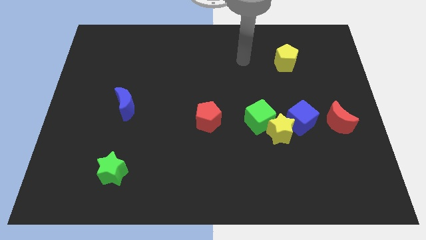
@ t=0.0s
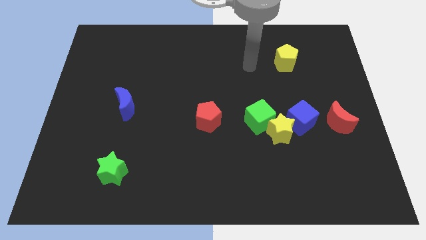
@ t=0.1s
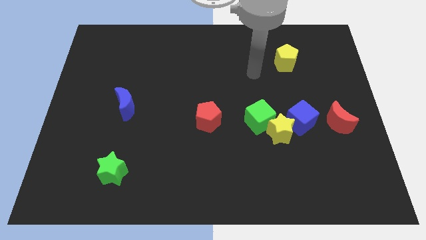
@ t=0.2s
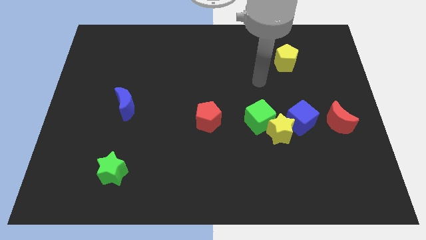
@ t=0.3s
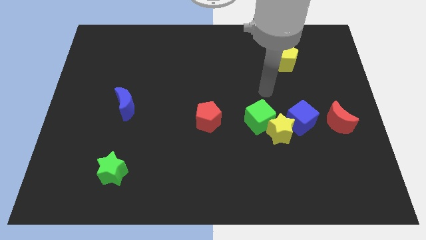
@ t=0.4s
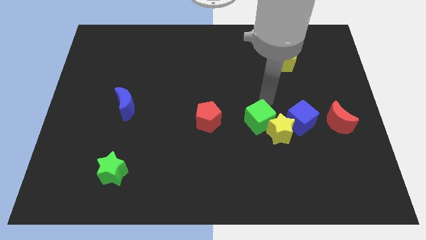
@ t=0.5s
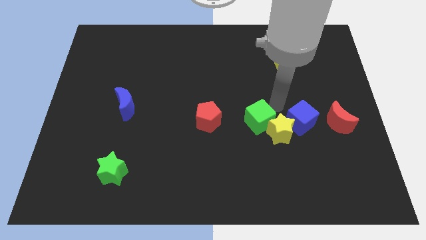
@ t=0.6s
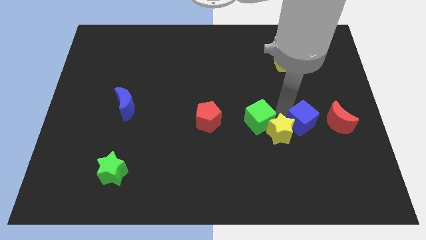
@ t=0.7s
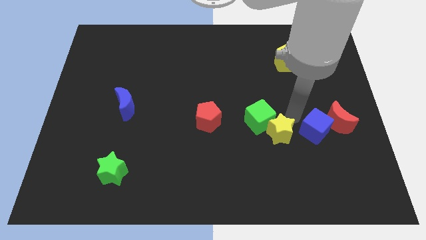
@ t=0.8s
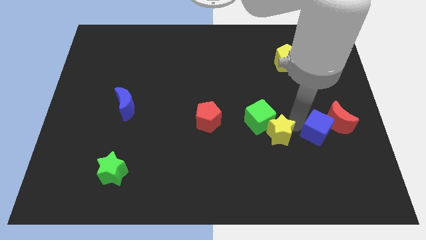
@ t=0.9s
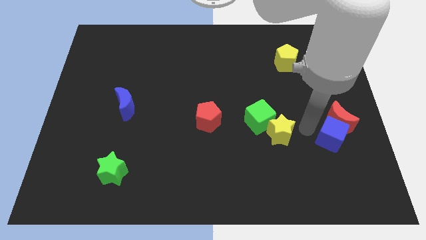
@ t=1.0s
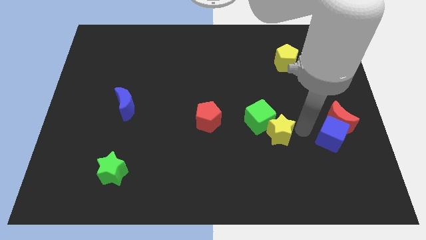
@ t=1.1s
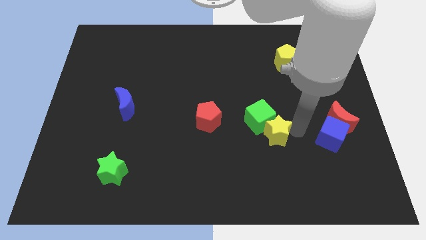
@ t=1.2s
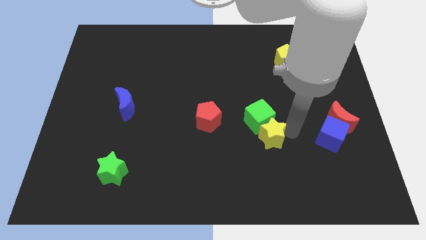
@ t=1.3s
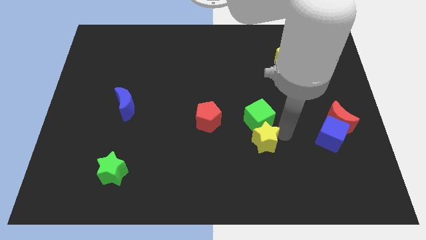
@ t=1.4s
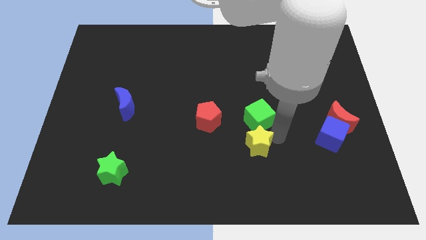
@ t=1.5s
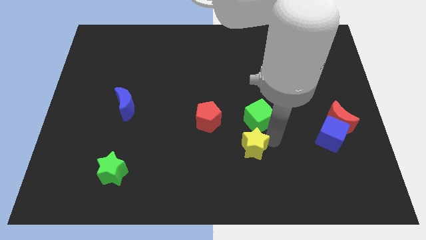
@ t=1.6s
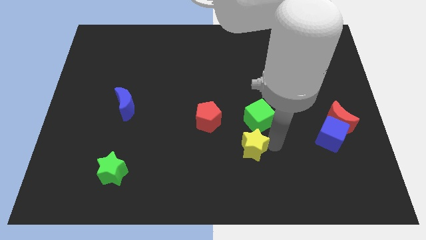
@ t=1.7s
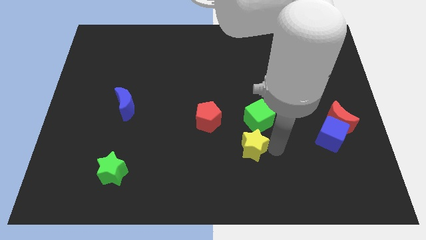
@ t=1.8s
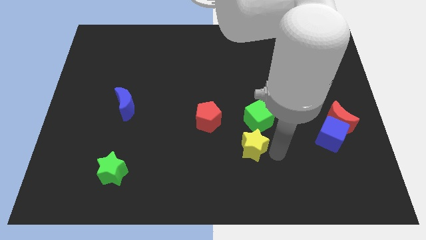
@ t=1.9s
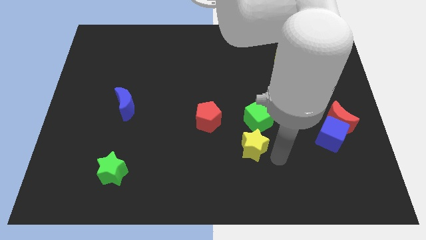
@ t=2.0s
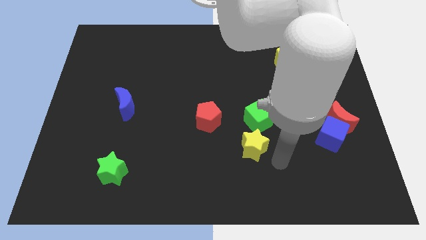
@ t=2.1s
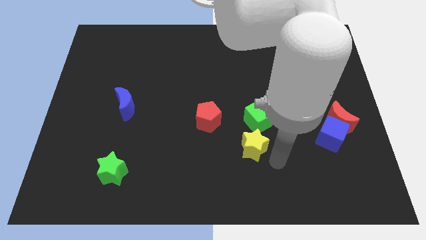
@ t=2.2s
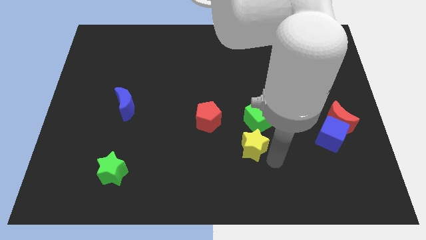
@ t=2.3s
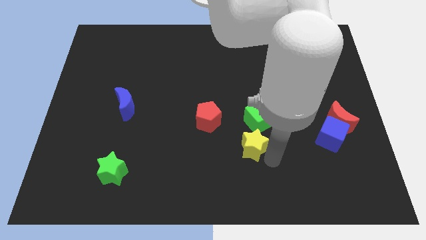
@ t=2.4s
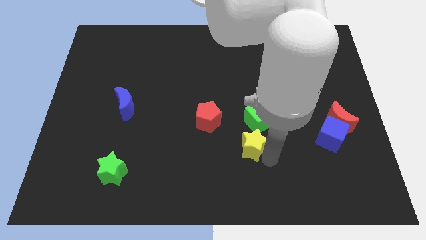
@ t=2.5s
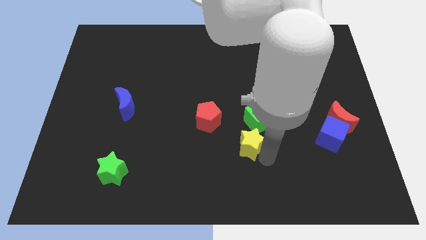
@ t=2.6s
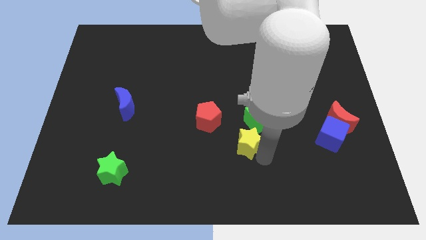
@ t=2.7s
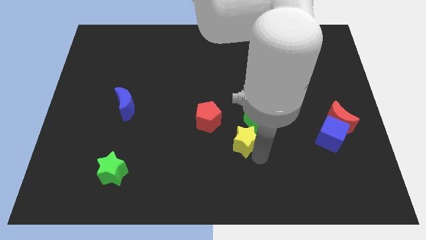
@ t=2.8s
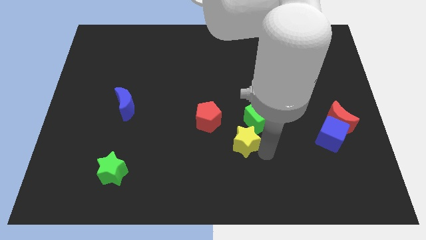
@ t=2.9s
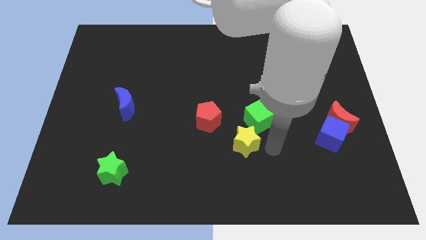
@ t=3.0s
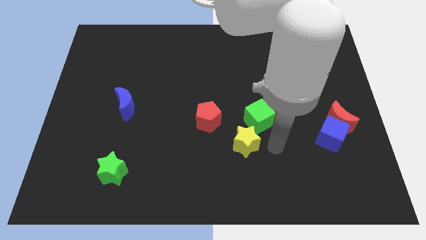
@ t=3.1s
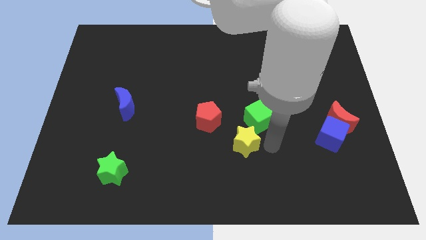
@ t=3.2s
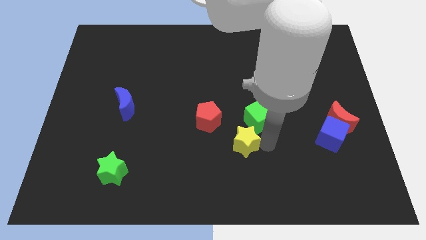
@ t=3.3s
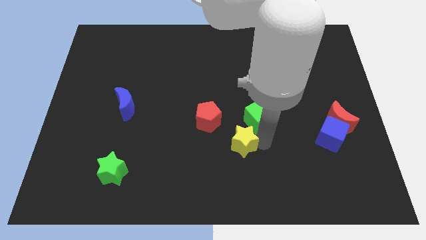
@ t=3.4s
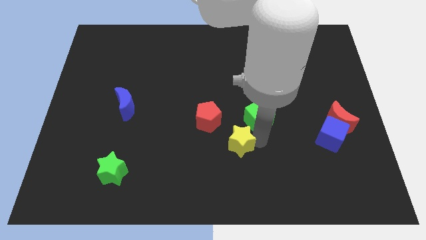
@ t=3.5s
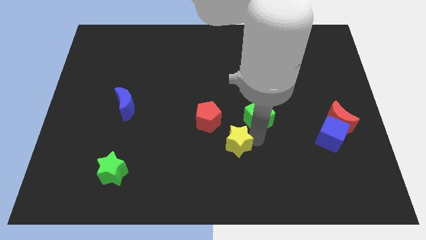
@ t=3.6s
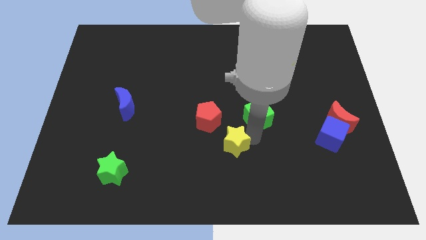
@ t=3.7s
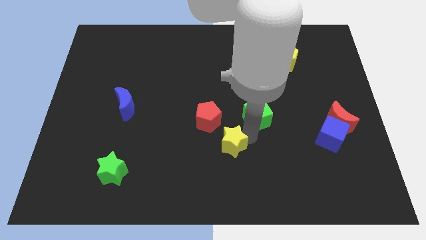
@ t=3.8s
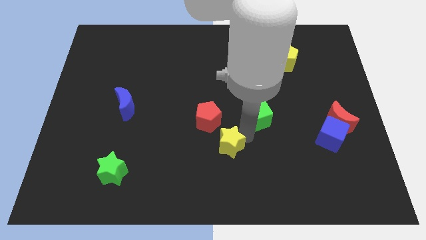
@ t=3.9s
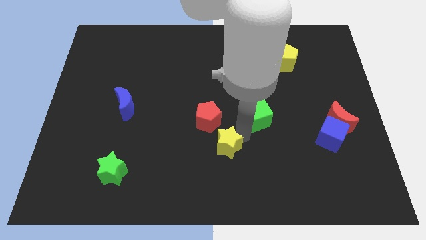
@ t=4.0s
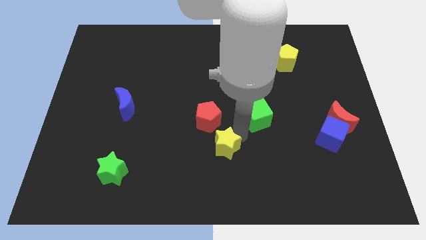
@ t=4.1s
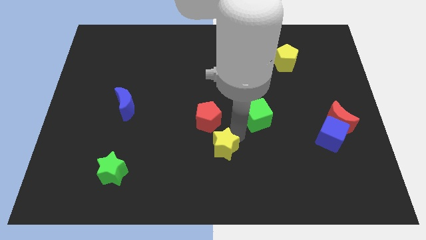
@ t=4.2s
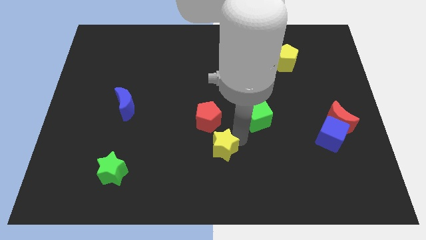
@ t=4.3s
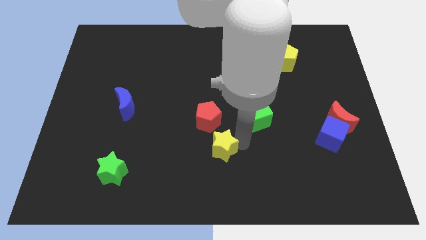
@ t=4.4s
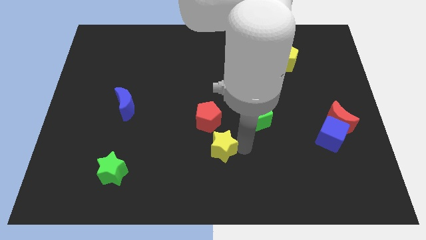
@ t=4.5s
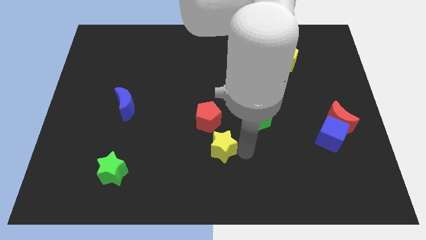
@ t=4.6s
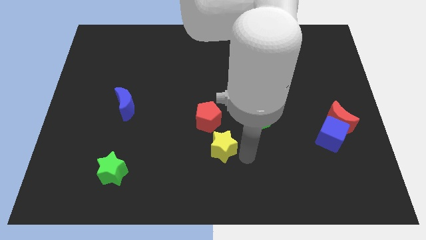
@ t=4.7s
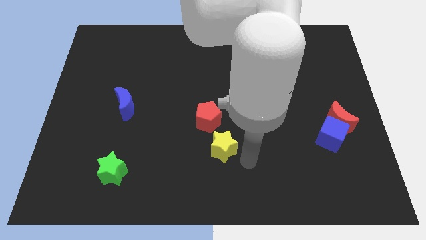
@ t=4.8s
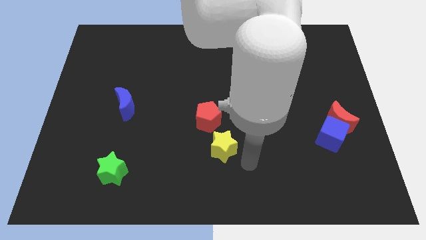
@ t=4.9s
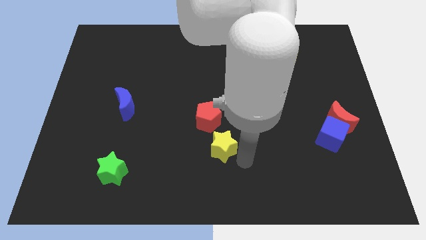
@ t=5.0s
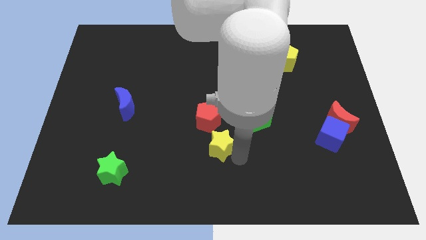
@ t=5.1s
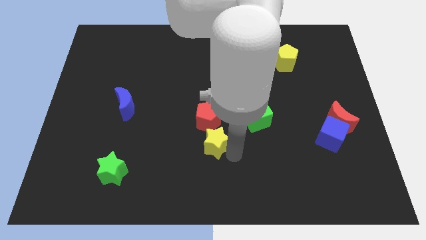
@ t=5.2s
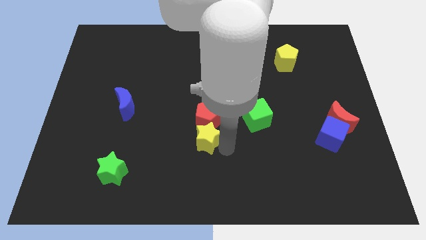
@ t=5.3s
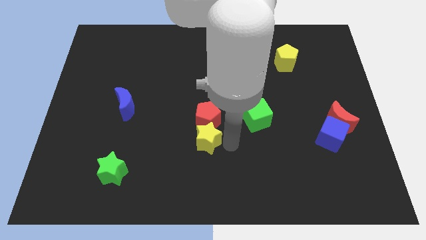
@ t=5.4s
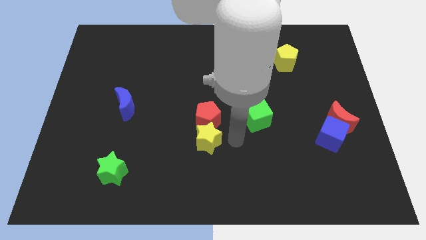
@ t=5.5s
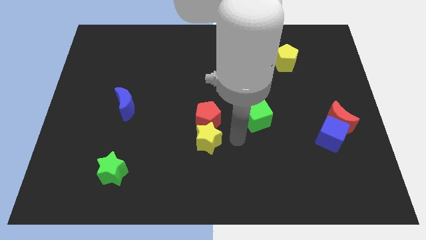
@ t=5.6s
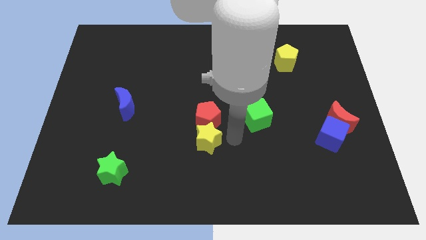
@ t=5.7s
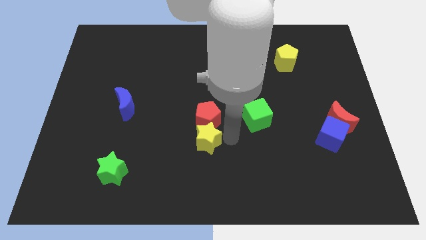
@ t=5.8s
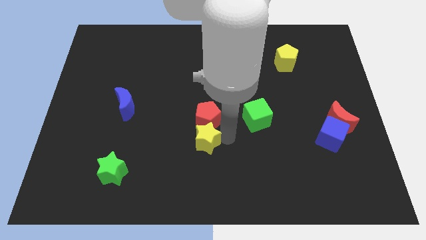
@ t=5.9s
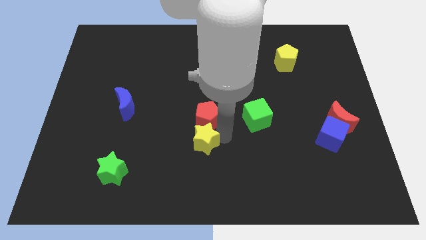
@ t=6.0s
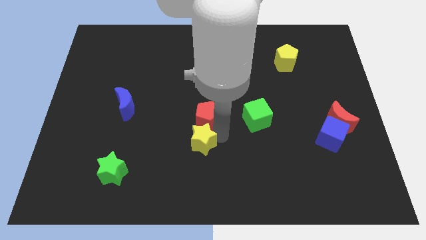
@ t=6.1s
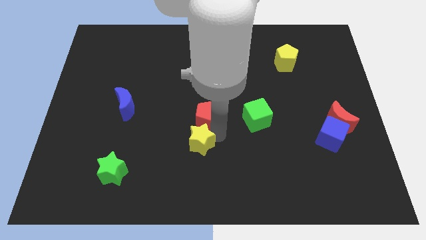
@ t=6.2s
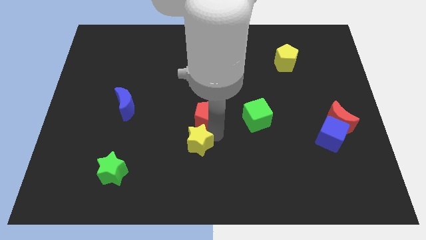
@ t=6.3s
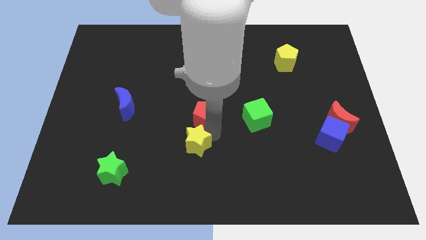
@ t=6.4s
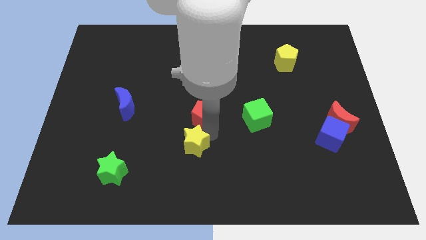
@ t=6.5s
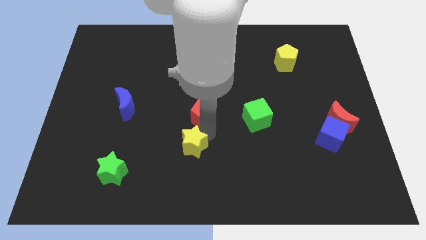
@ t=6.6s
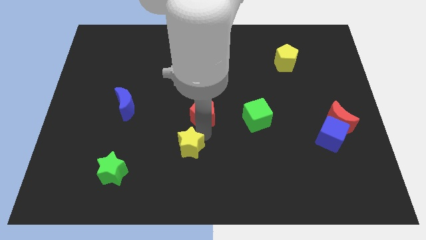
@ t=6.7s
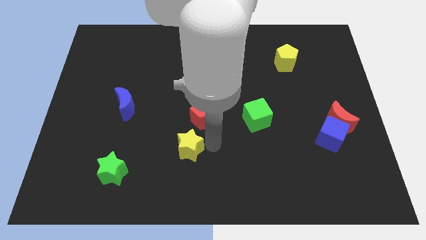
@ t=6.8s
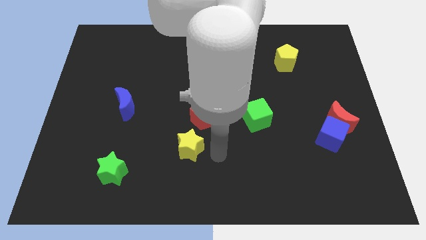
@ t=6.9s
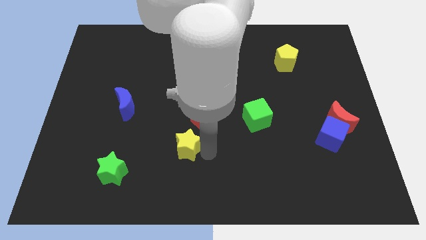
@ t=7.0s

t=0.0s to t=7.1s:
push the yellow star to the left

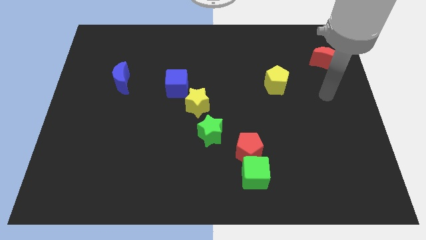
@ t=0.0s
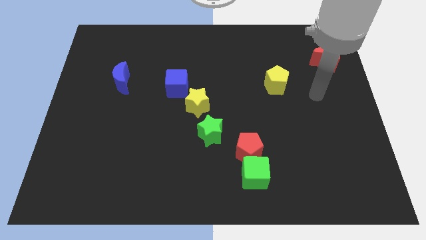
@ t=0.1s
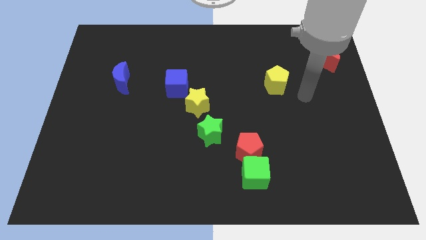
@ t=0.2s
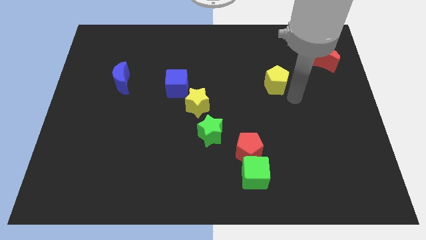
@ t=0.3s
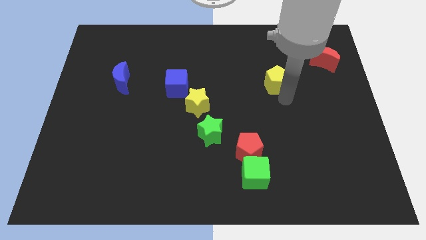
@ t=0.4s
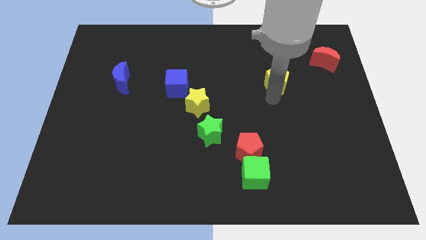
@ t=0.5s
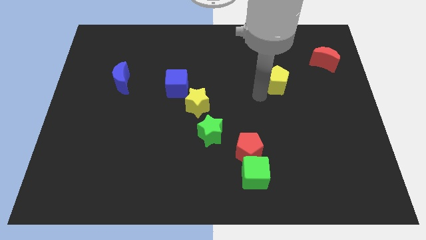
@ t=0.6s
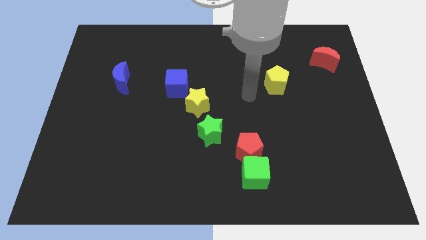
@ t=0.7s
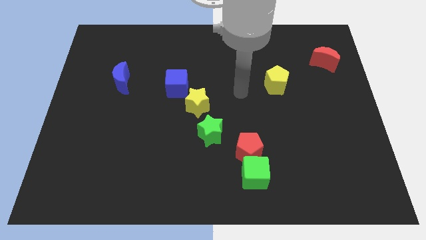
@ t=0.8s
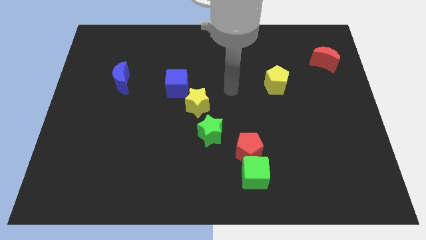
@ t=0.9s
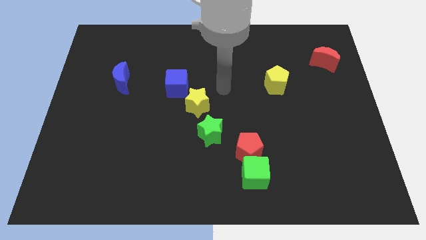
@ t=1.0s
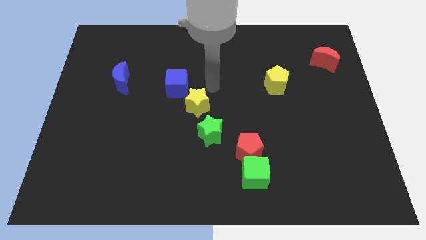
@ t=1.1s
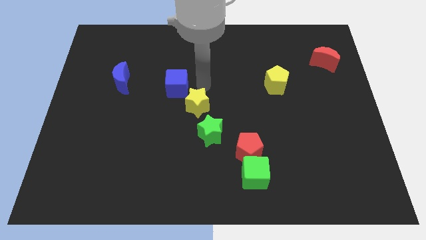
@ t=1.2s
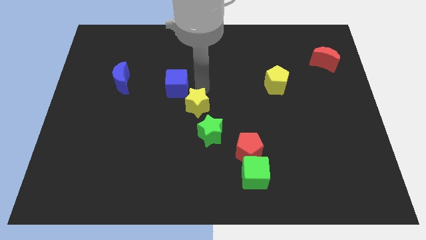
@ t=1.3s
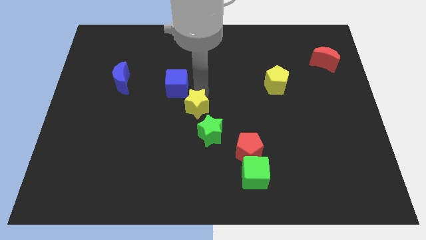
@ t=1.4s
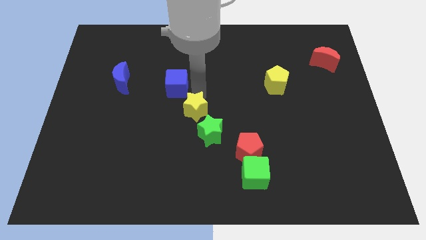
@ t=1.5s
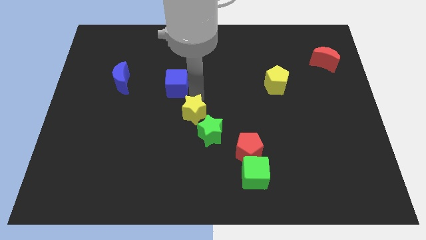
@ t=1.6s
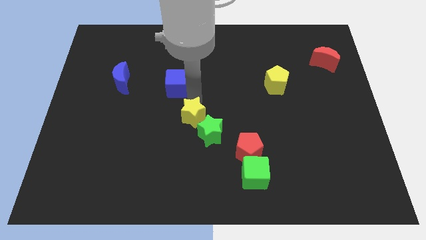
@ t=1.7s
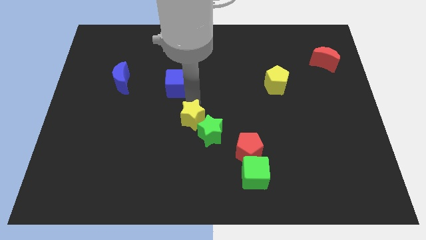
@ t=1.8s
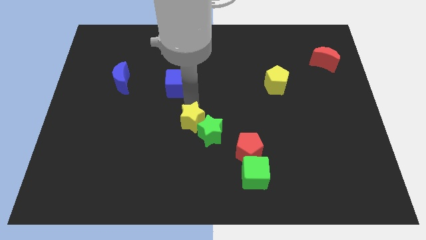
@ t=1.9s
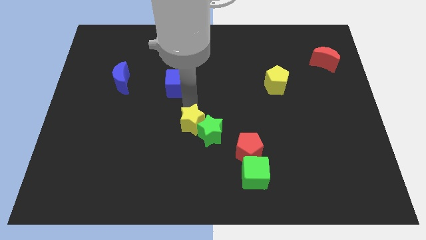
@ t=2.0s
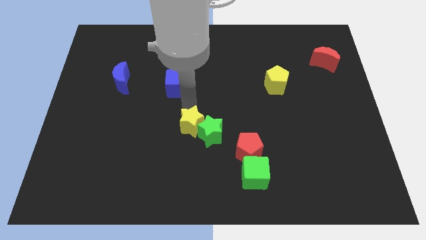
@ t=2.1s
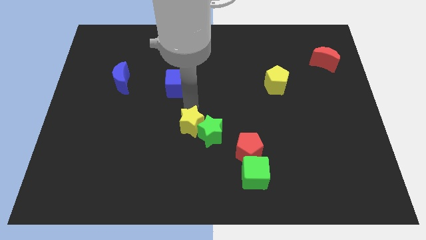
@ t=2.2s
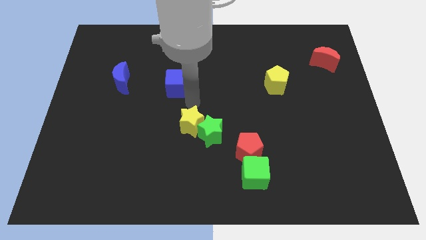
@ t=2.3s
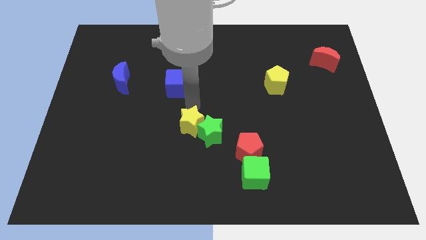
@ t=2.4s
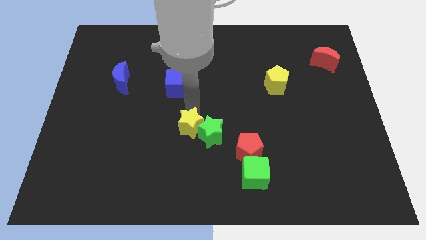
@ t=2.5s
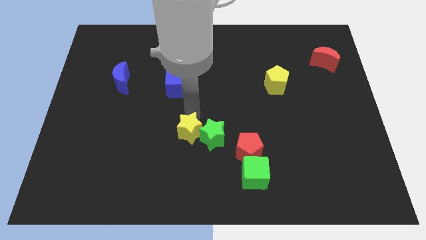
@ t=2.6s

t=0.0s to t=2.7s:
slightly slide the yellow star down
